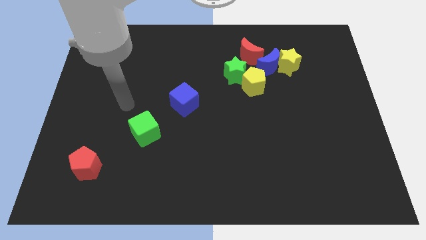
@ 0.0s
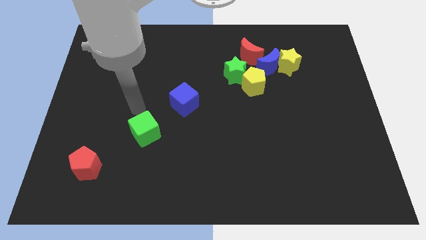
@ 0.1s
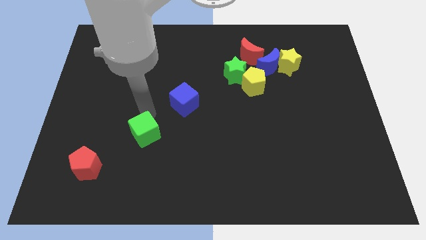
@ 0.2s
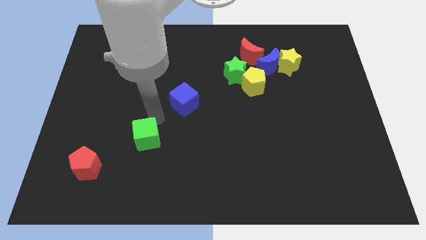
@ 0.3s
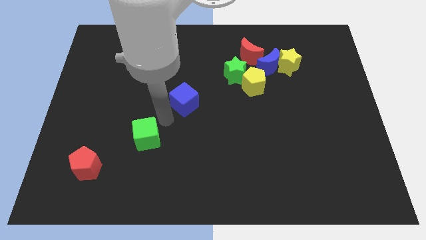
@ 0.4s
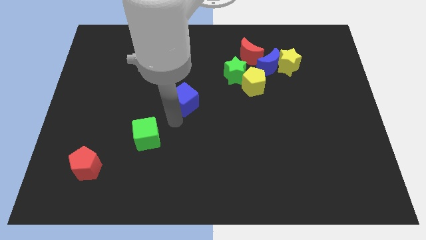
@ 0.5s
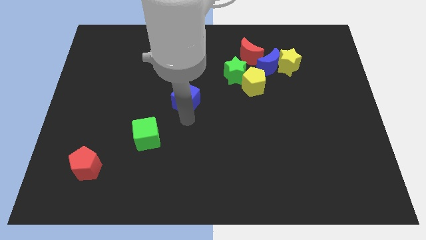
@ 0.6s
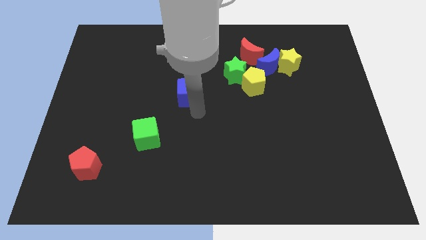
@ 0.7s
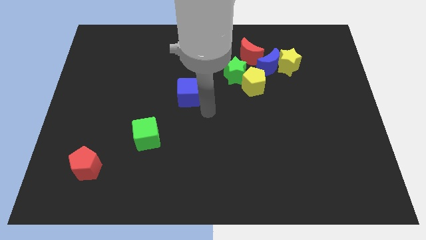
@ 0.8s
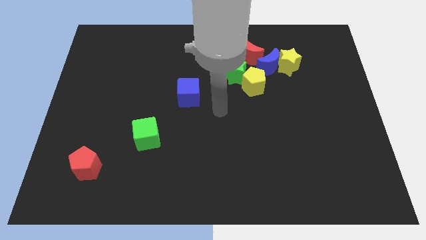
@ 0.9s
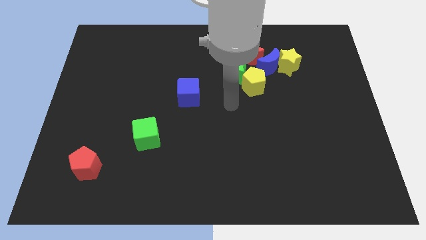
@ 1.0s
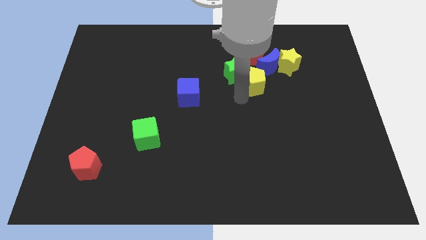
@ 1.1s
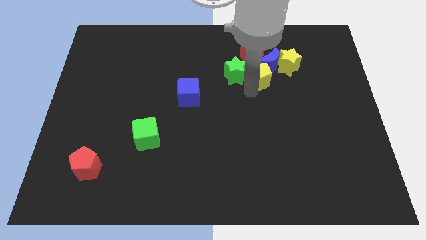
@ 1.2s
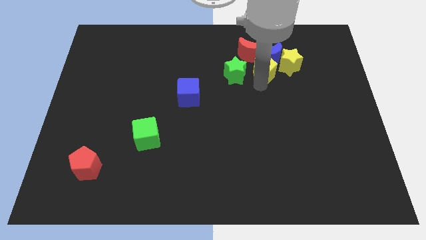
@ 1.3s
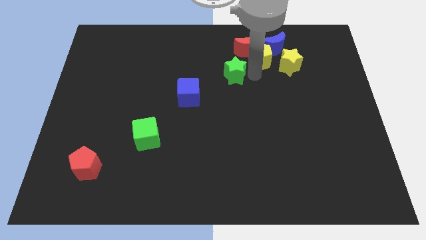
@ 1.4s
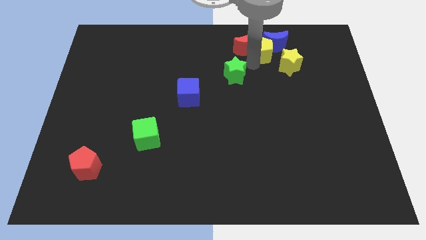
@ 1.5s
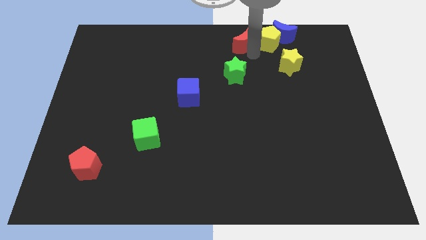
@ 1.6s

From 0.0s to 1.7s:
separate the blue moon from the clump

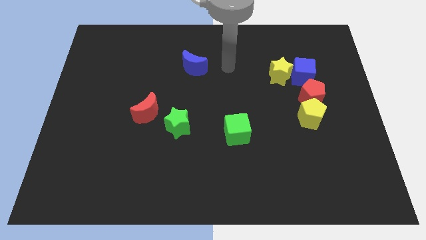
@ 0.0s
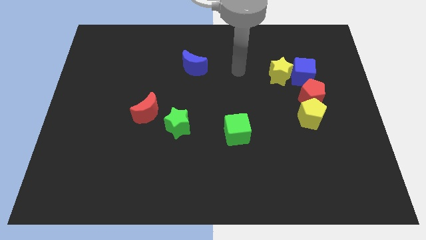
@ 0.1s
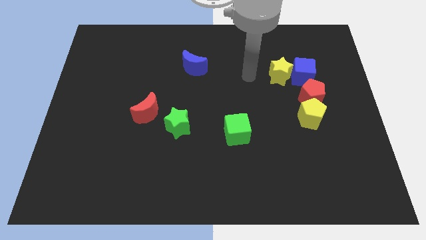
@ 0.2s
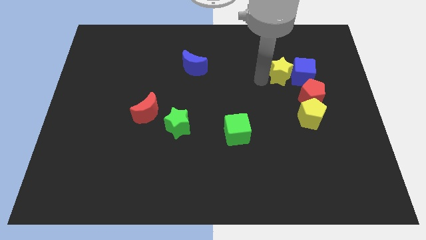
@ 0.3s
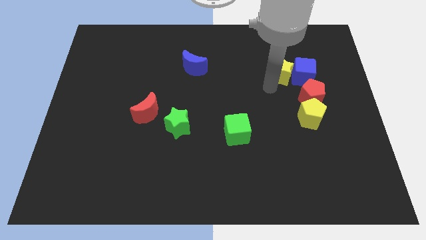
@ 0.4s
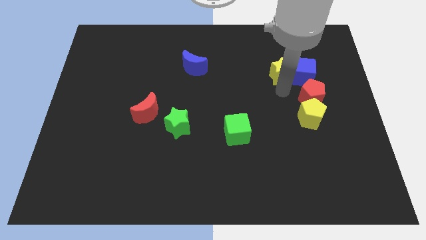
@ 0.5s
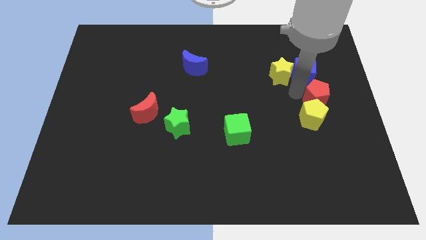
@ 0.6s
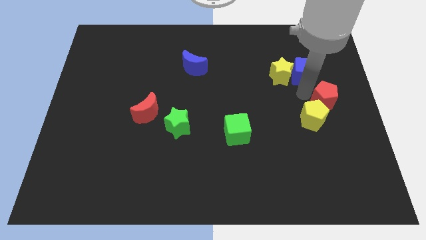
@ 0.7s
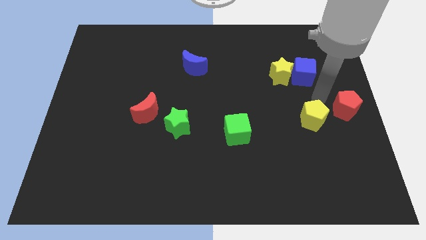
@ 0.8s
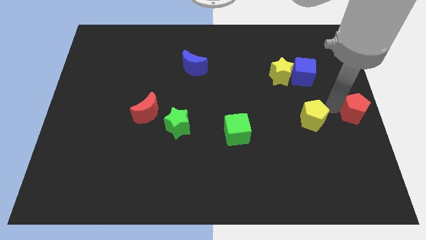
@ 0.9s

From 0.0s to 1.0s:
move the yellow pentagon away from the red pentagon

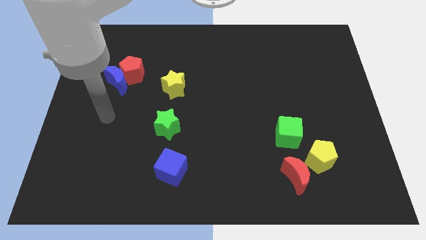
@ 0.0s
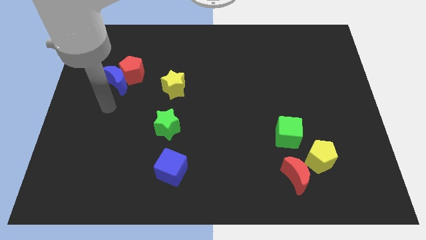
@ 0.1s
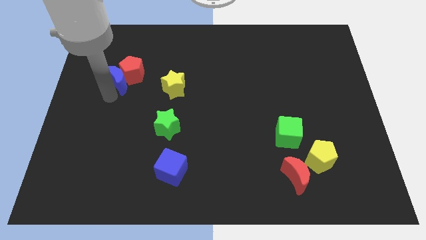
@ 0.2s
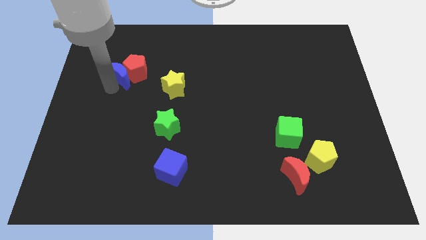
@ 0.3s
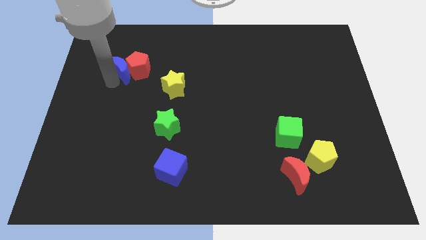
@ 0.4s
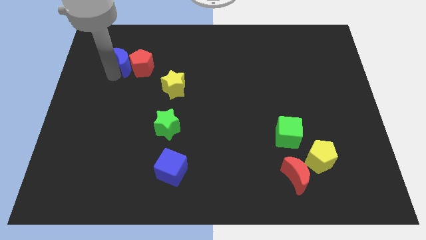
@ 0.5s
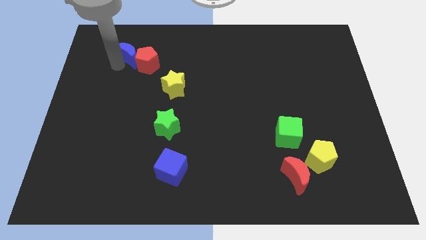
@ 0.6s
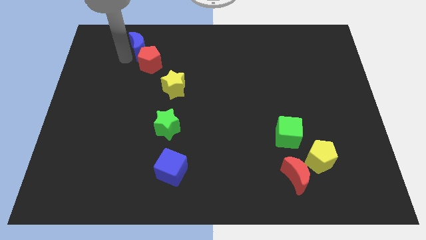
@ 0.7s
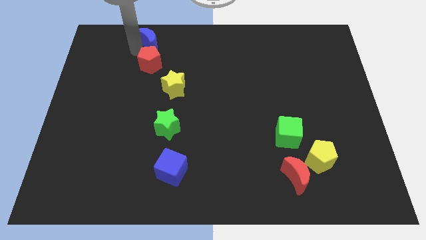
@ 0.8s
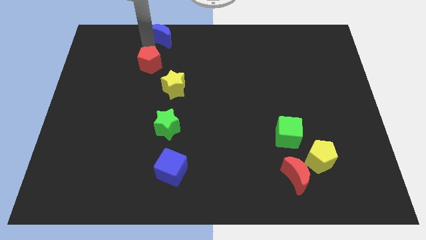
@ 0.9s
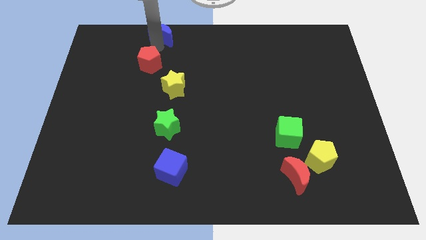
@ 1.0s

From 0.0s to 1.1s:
pull the red pentagon apart from the blue moon

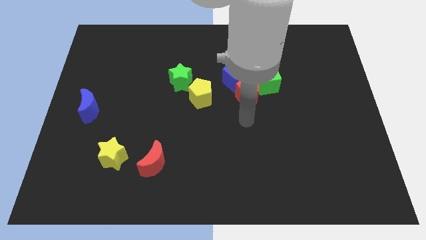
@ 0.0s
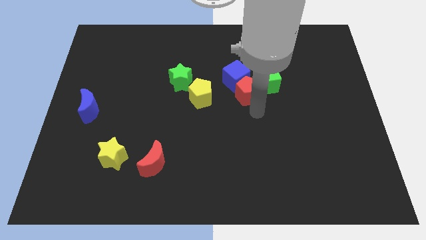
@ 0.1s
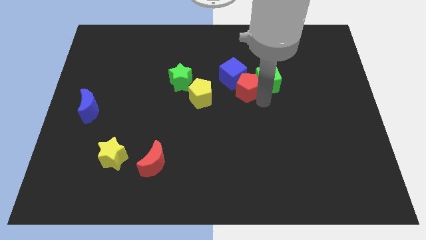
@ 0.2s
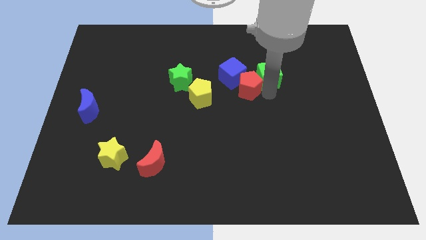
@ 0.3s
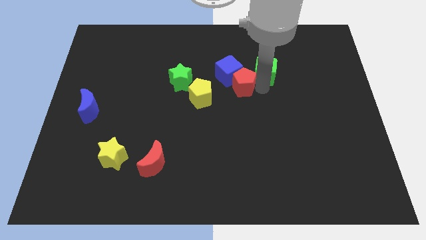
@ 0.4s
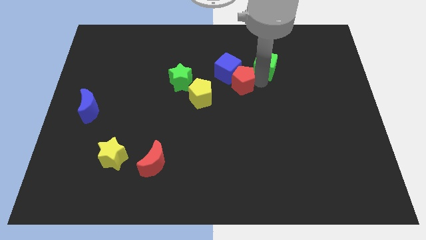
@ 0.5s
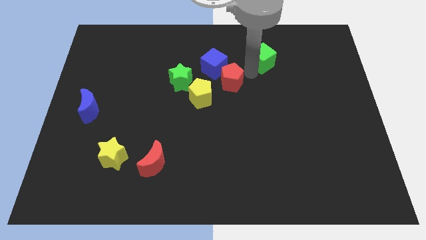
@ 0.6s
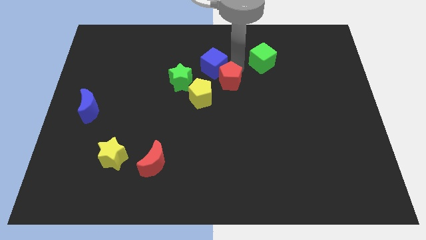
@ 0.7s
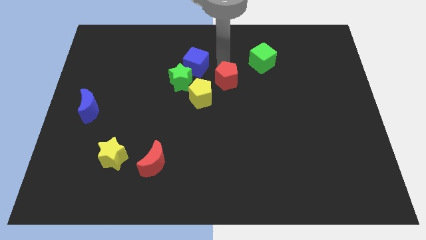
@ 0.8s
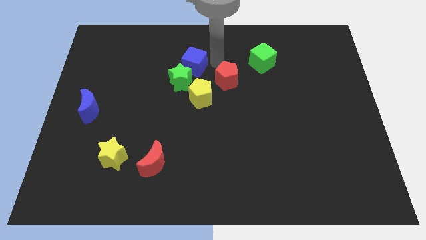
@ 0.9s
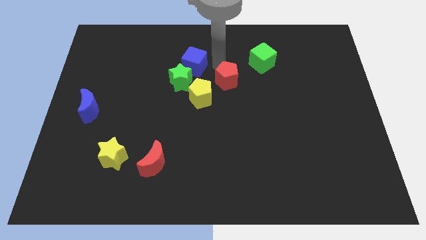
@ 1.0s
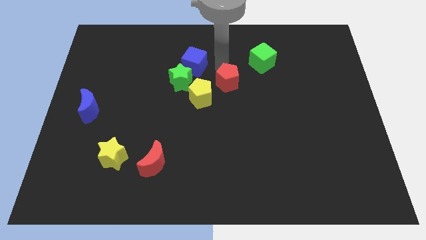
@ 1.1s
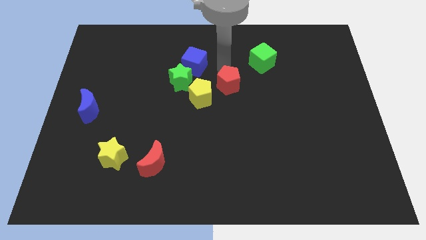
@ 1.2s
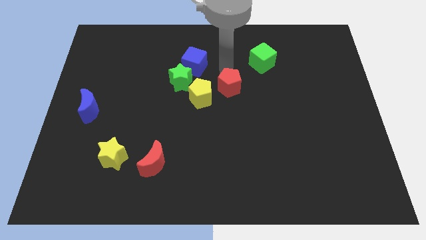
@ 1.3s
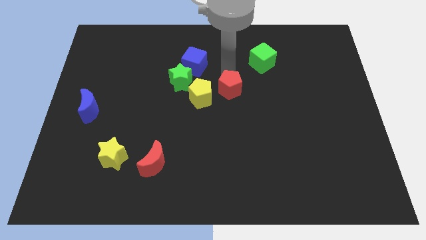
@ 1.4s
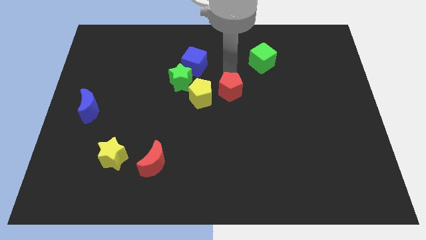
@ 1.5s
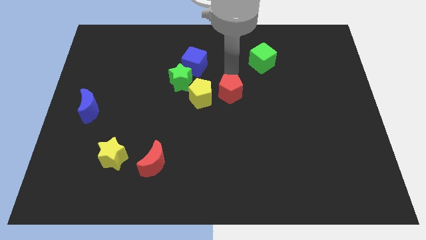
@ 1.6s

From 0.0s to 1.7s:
move the red pentagon away from the blue cube and green cube

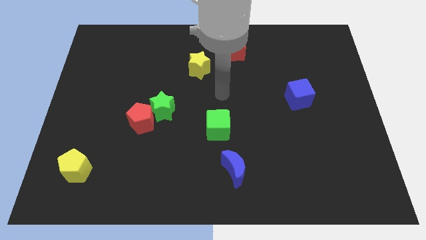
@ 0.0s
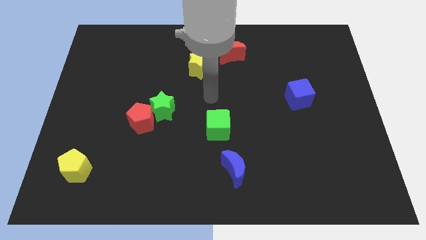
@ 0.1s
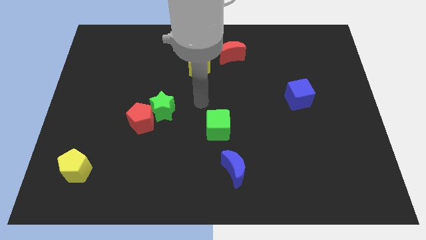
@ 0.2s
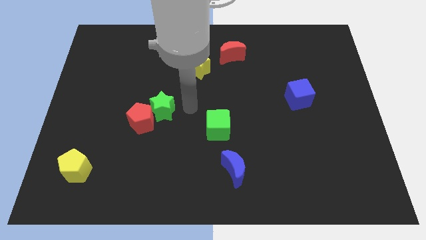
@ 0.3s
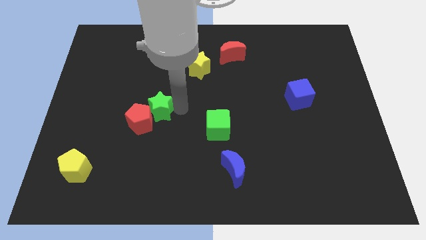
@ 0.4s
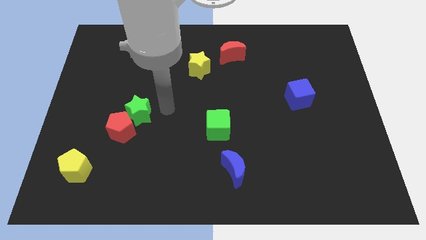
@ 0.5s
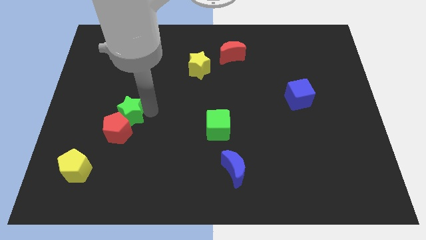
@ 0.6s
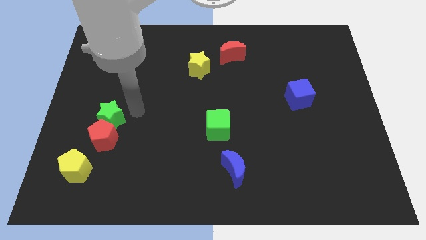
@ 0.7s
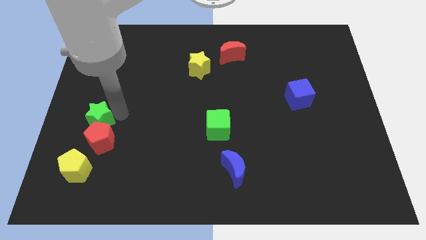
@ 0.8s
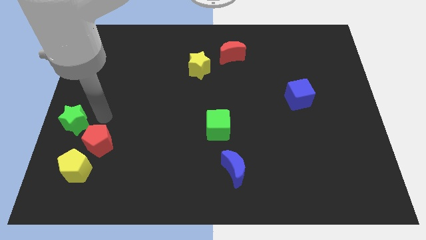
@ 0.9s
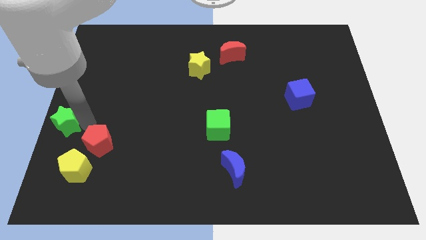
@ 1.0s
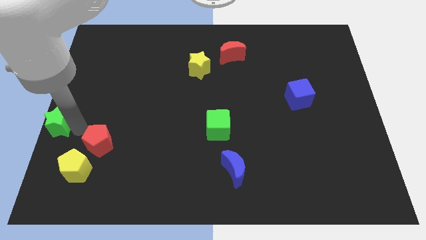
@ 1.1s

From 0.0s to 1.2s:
separate the red pentagon from the green star

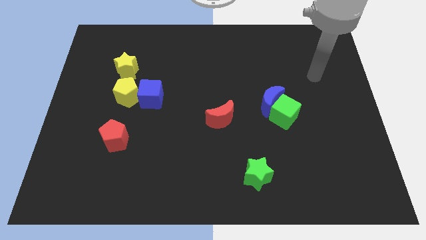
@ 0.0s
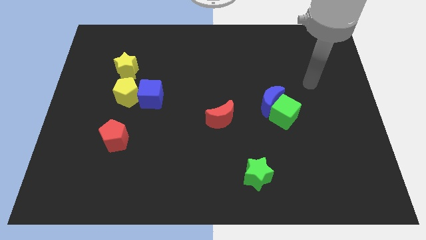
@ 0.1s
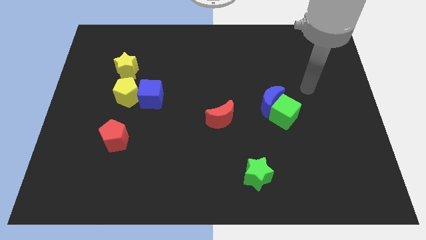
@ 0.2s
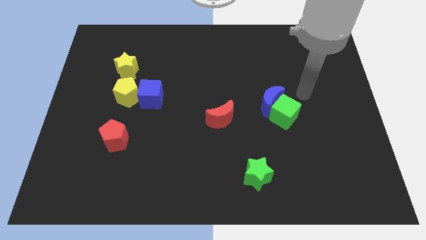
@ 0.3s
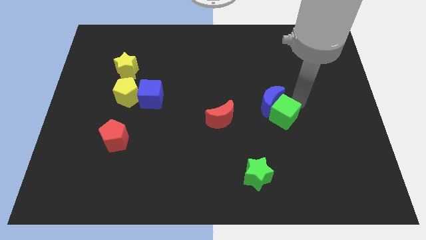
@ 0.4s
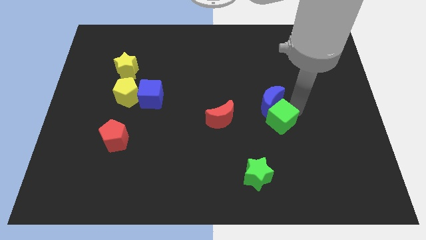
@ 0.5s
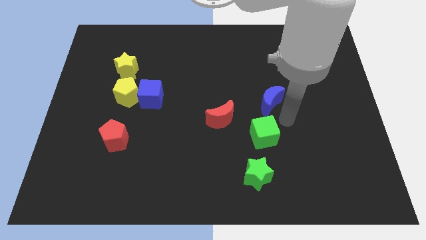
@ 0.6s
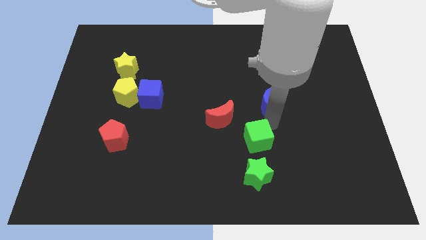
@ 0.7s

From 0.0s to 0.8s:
move the blue moon away from the green cube

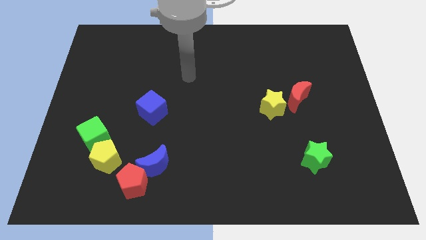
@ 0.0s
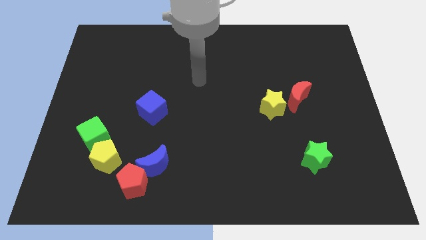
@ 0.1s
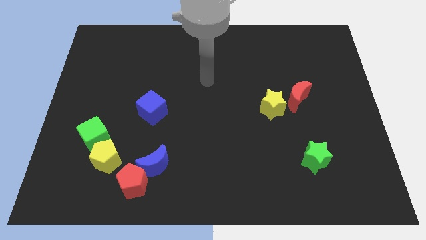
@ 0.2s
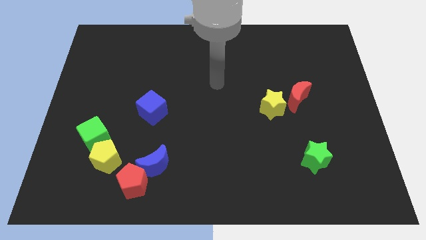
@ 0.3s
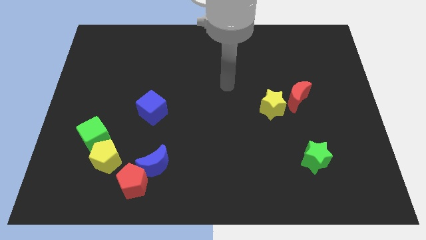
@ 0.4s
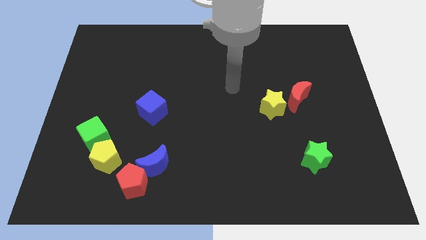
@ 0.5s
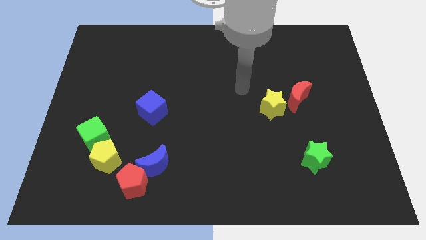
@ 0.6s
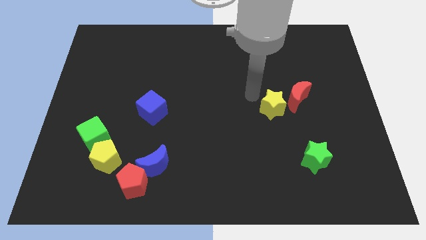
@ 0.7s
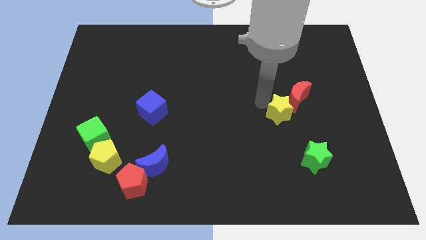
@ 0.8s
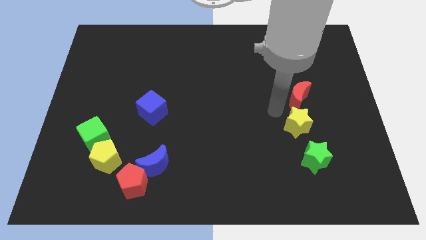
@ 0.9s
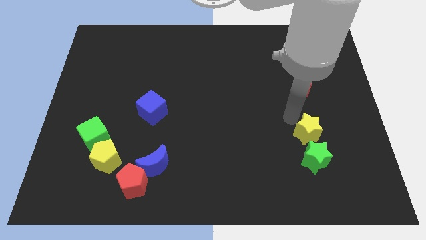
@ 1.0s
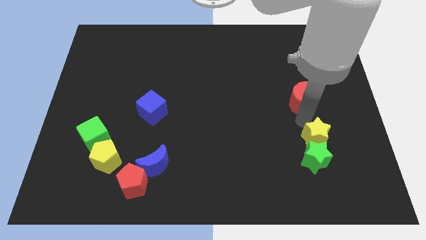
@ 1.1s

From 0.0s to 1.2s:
separate the red moon from the yellow star

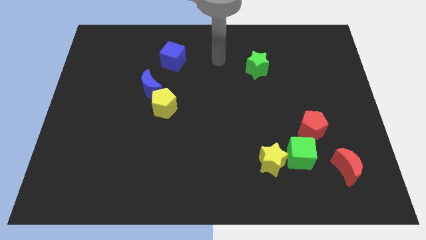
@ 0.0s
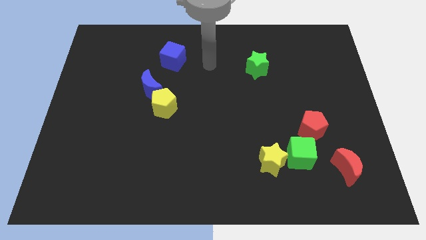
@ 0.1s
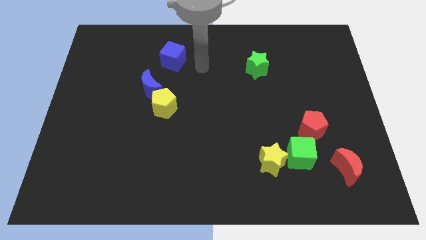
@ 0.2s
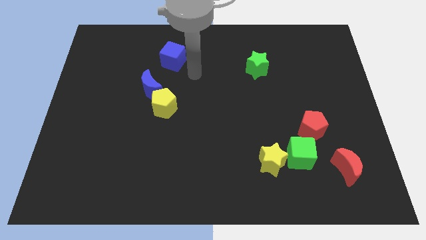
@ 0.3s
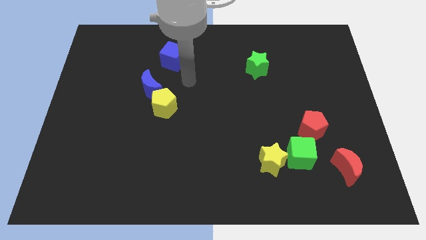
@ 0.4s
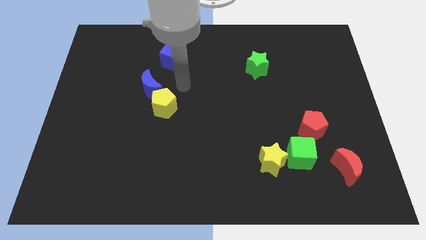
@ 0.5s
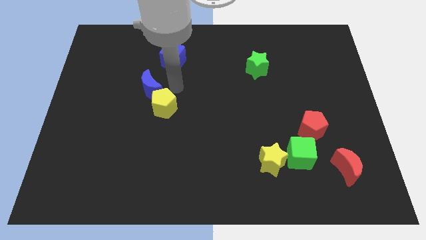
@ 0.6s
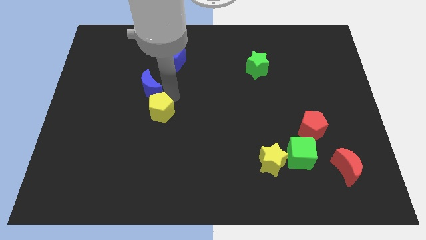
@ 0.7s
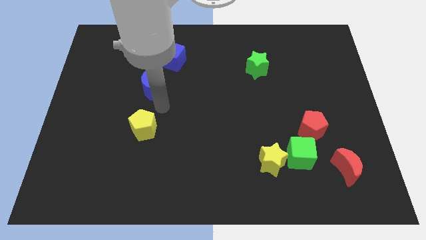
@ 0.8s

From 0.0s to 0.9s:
move the blue moon away from the yellow pentagon
